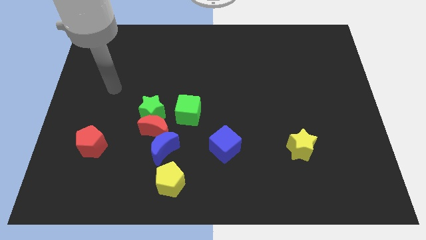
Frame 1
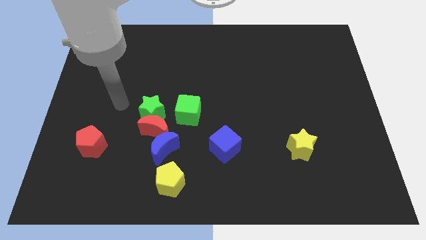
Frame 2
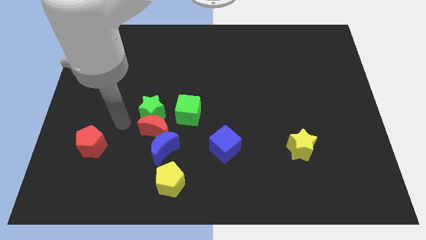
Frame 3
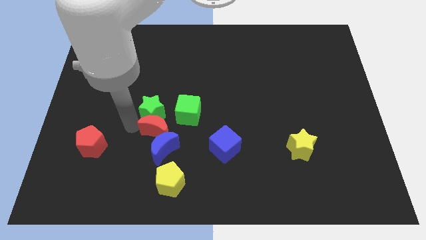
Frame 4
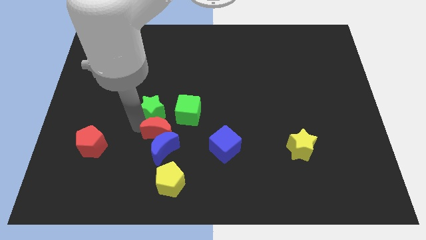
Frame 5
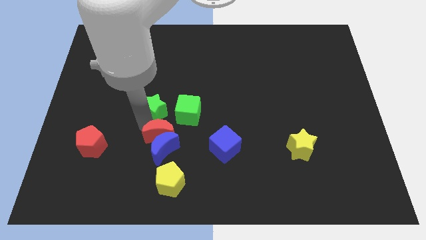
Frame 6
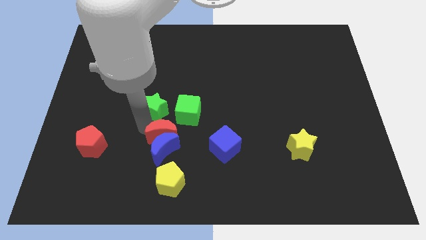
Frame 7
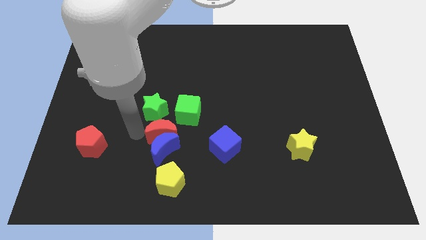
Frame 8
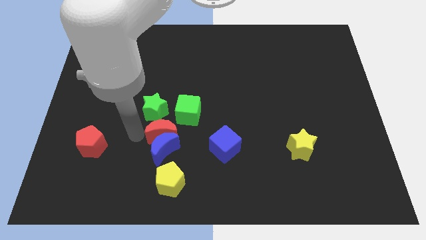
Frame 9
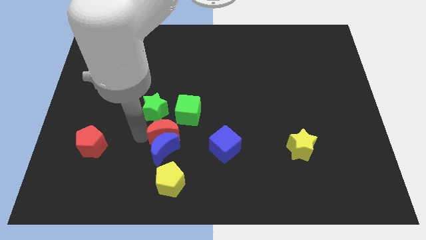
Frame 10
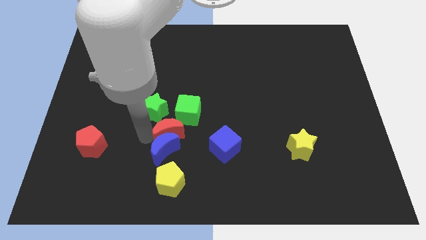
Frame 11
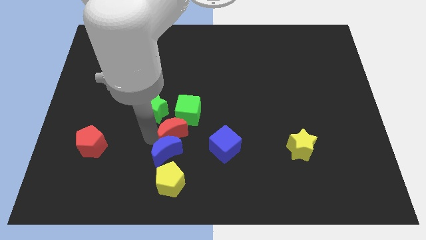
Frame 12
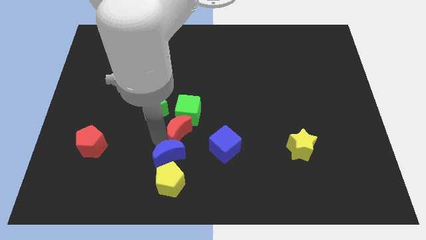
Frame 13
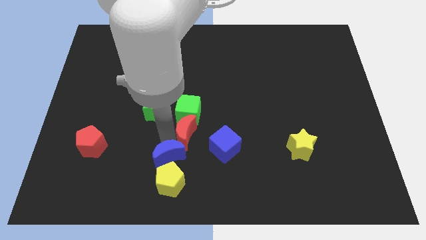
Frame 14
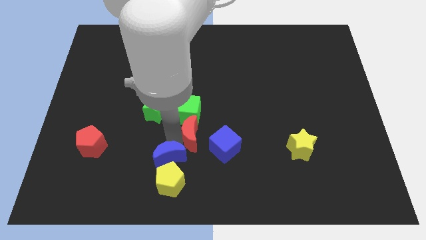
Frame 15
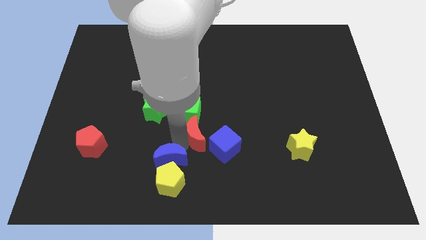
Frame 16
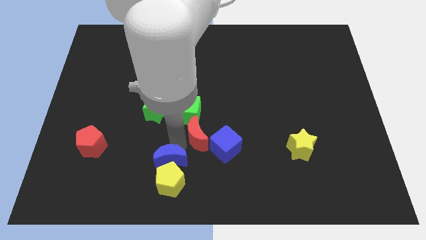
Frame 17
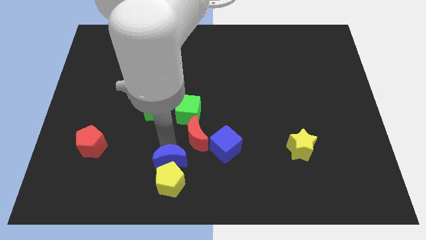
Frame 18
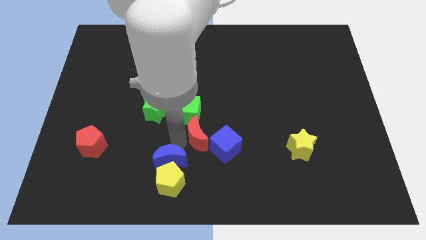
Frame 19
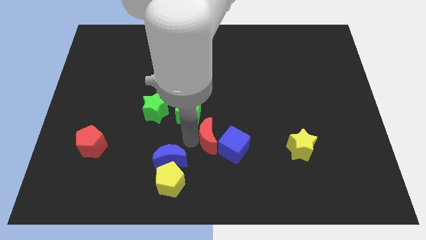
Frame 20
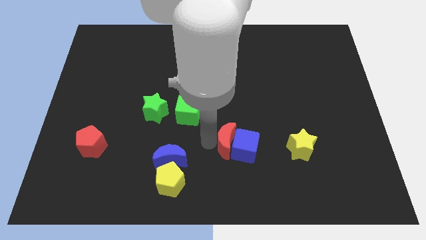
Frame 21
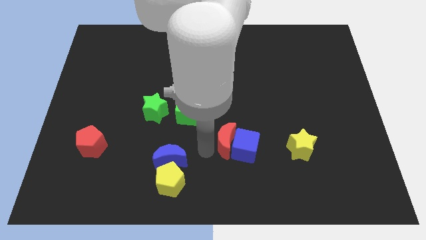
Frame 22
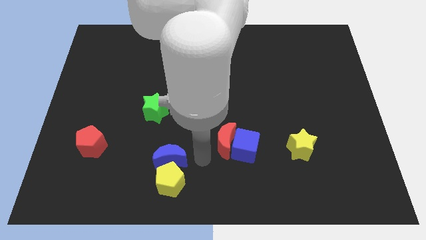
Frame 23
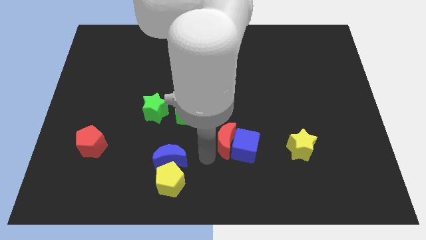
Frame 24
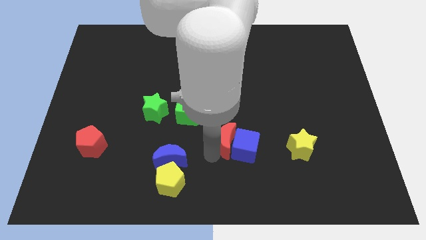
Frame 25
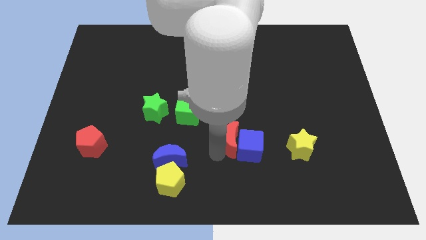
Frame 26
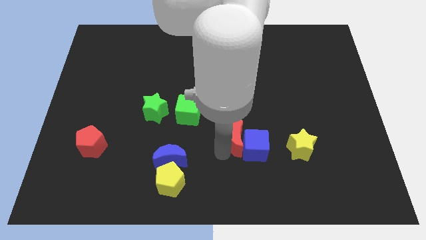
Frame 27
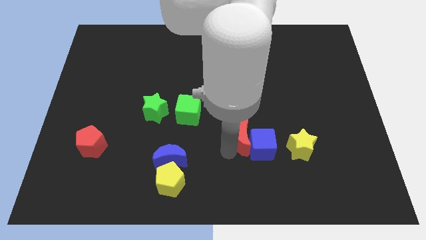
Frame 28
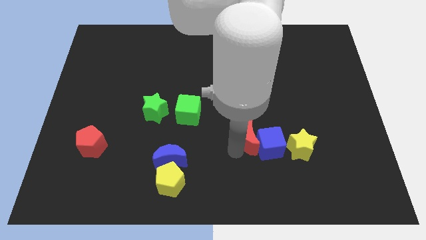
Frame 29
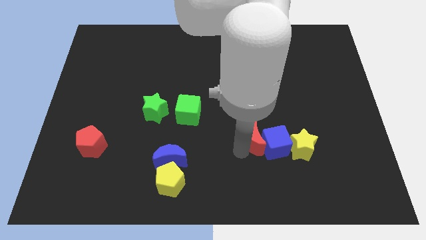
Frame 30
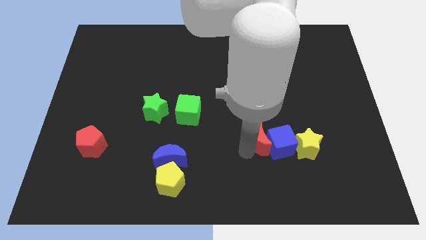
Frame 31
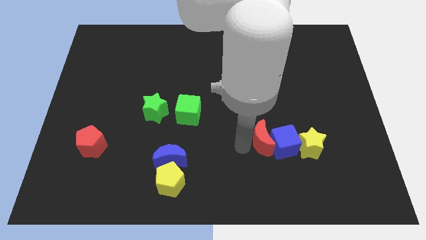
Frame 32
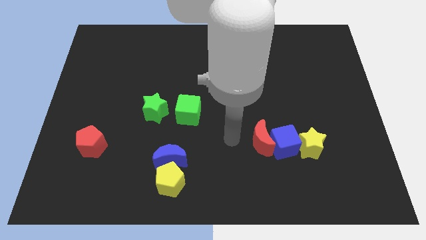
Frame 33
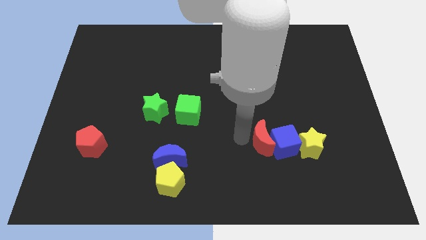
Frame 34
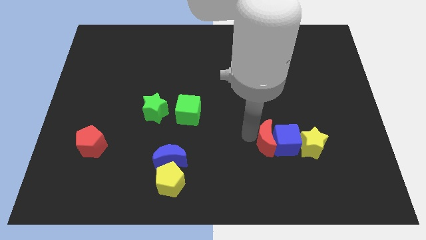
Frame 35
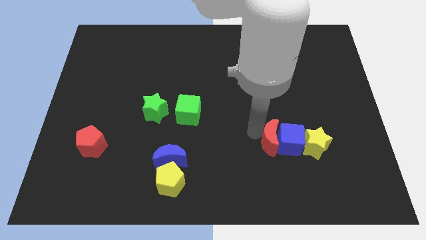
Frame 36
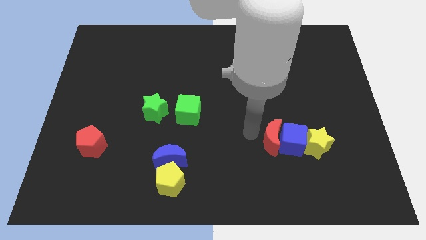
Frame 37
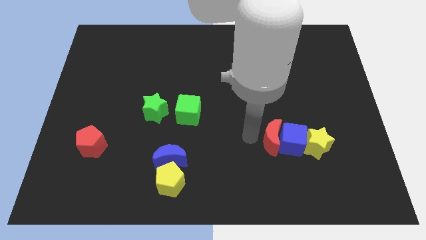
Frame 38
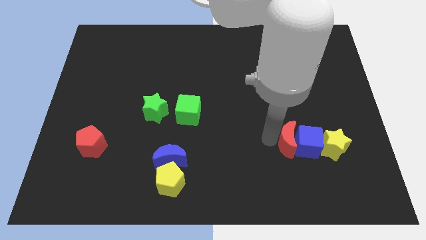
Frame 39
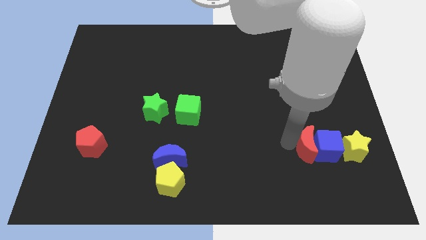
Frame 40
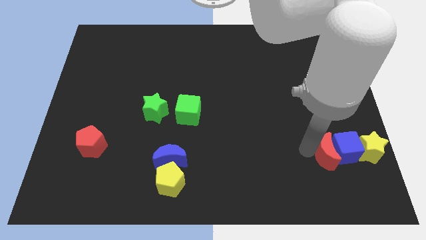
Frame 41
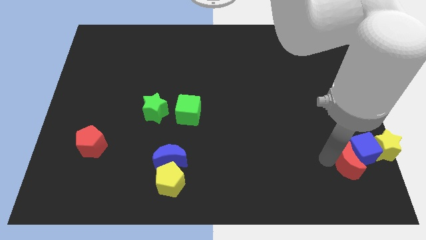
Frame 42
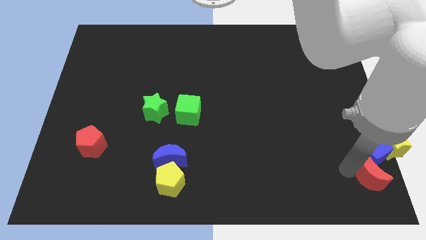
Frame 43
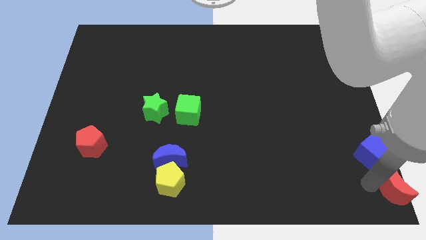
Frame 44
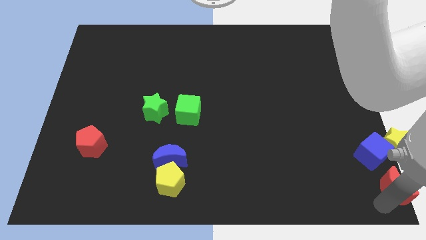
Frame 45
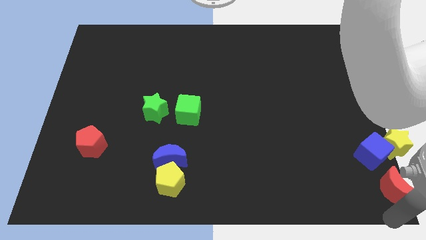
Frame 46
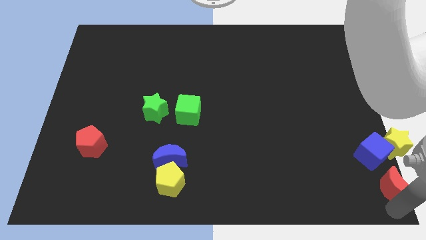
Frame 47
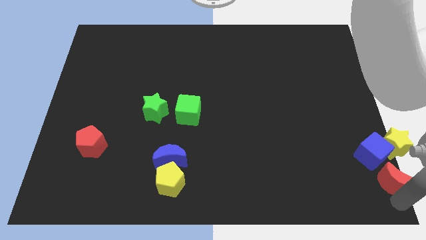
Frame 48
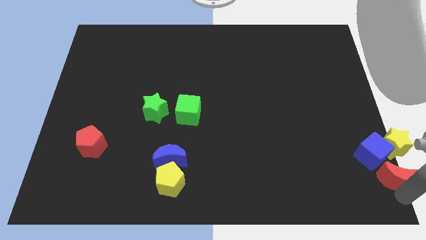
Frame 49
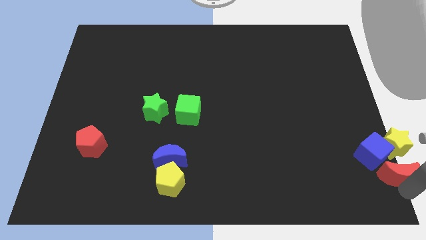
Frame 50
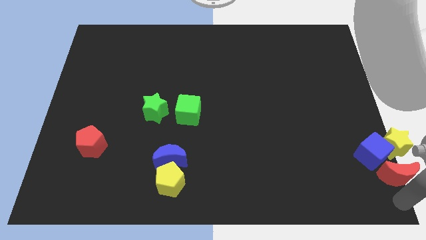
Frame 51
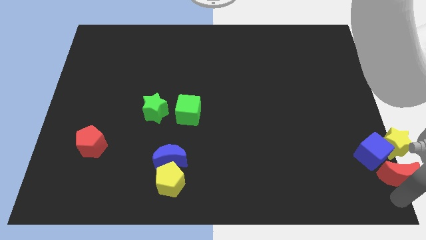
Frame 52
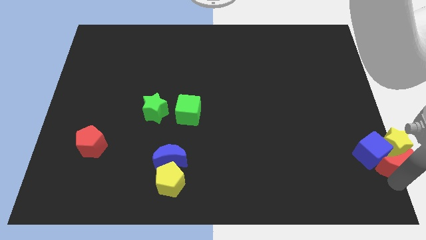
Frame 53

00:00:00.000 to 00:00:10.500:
put the red moon towards the yellow star

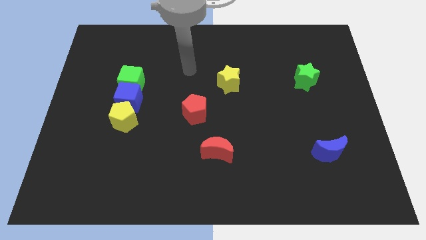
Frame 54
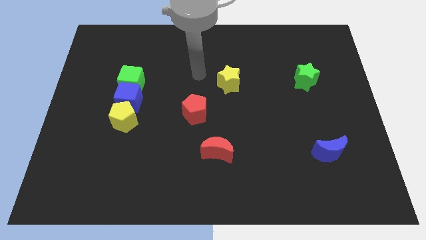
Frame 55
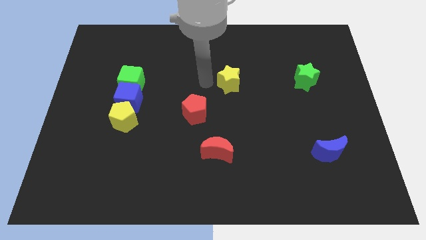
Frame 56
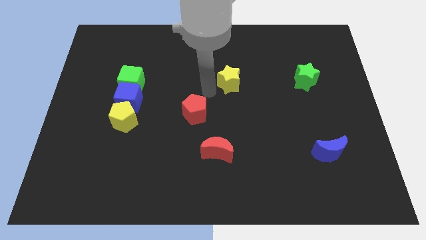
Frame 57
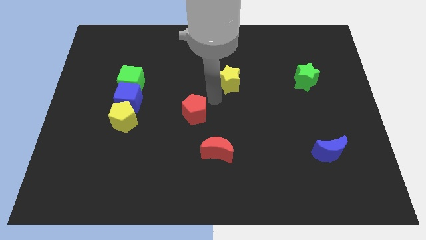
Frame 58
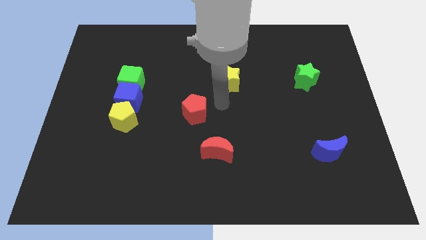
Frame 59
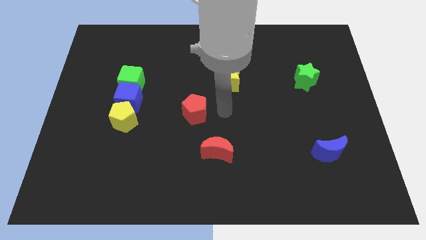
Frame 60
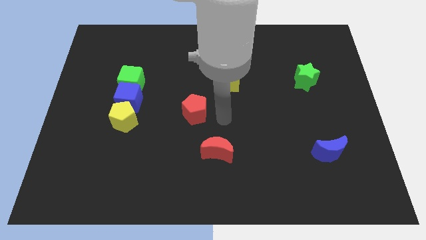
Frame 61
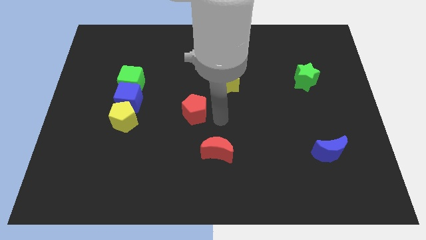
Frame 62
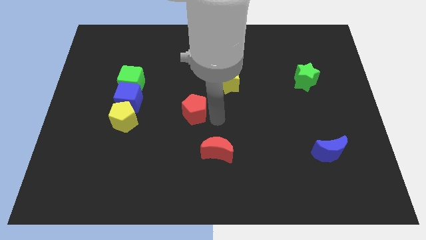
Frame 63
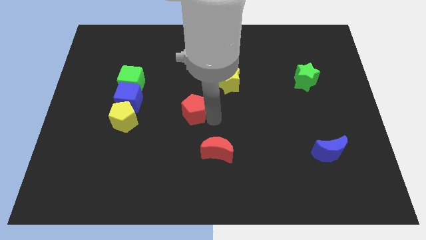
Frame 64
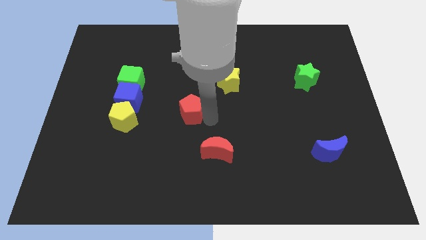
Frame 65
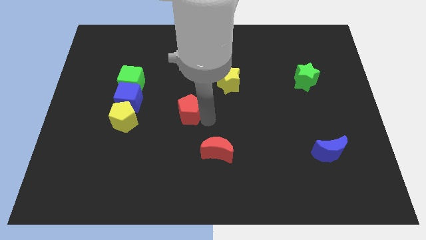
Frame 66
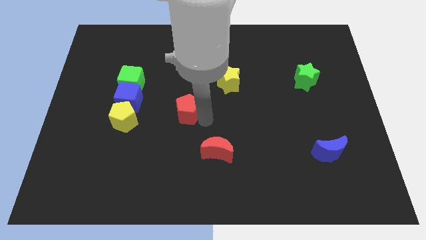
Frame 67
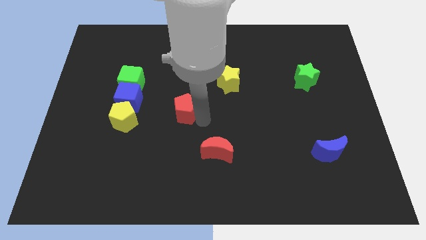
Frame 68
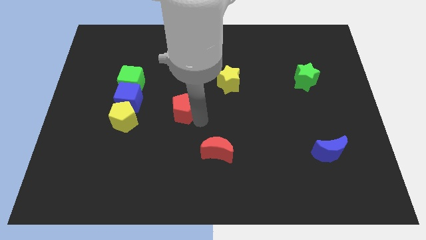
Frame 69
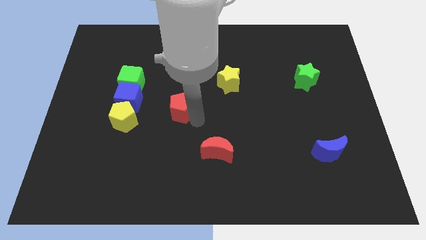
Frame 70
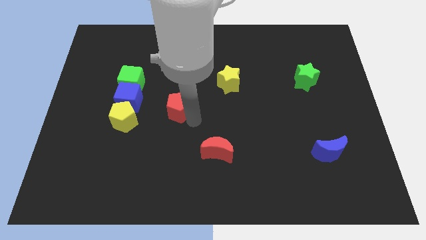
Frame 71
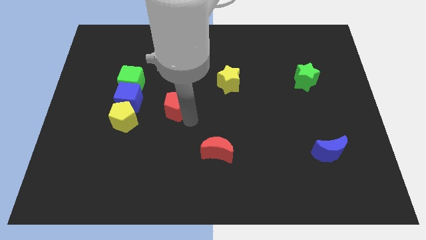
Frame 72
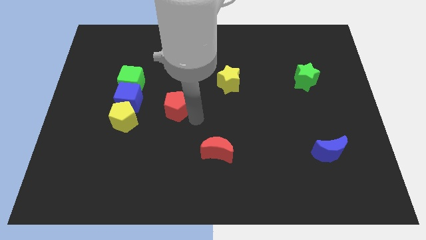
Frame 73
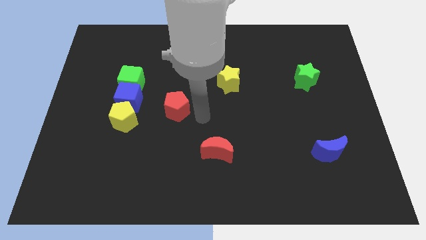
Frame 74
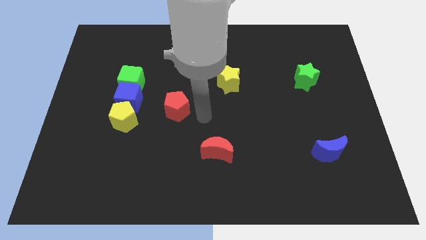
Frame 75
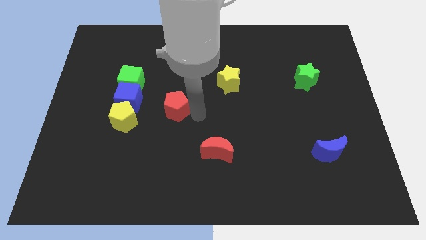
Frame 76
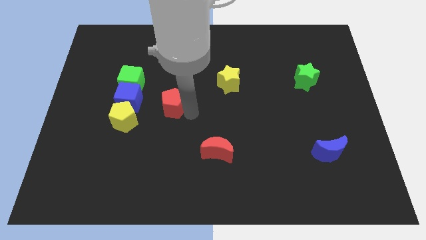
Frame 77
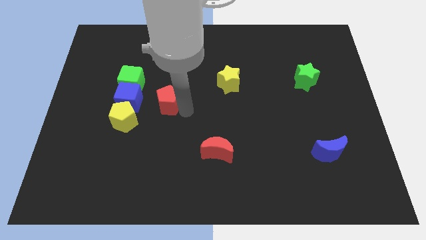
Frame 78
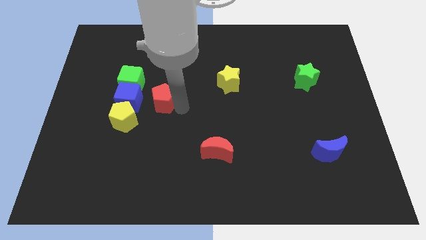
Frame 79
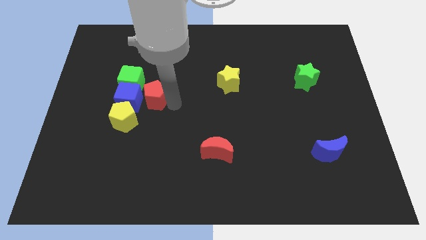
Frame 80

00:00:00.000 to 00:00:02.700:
put the red pentagon to the blue cube
